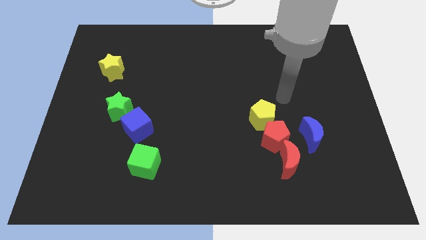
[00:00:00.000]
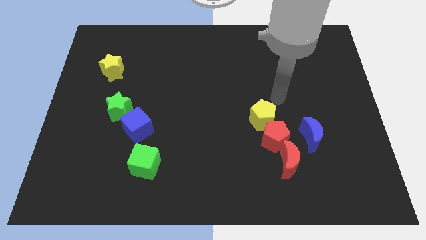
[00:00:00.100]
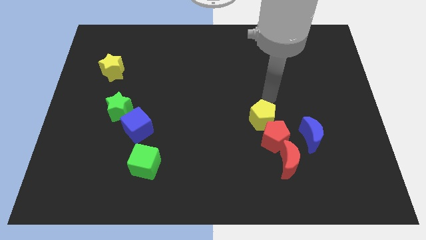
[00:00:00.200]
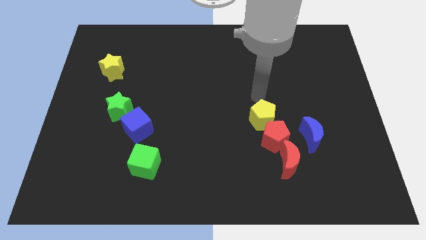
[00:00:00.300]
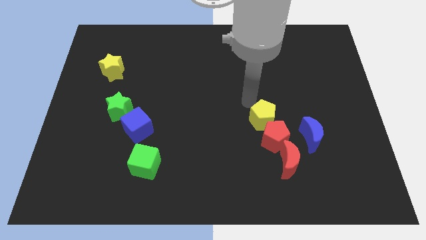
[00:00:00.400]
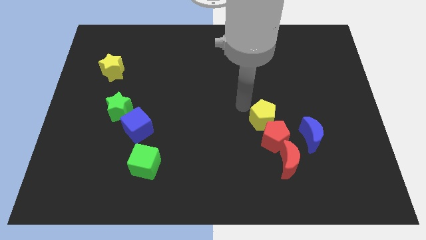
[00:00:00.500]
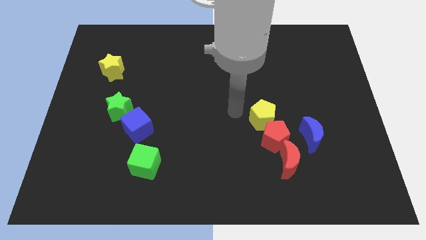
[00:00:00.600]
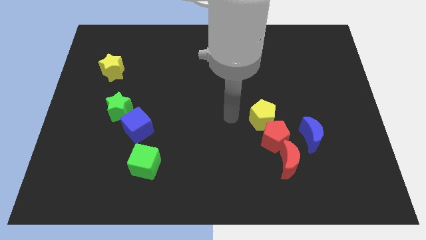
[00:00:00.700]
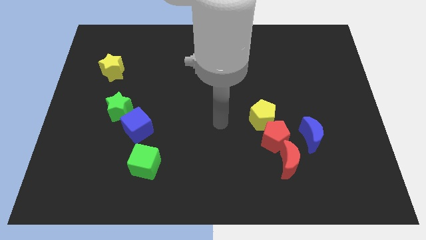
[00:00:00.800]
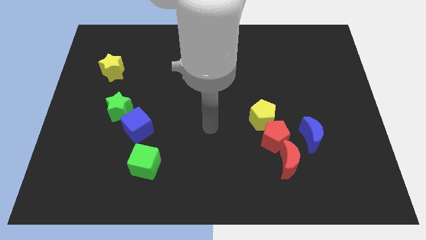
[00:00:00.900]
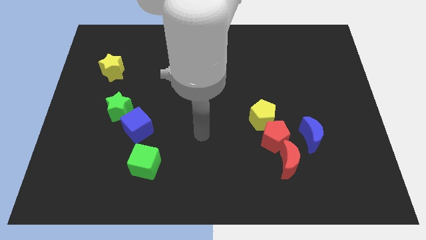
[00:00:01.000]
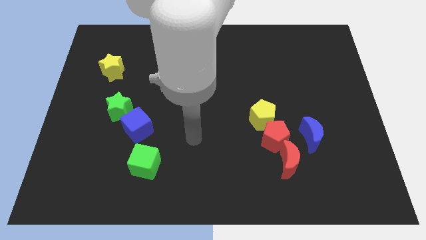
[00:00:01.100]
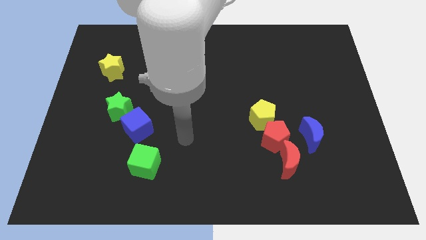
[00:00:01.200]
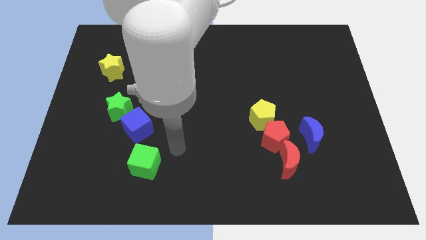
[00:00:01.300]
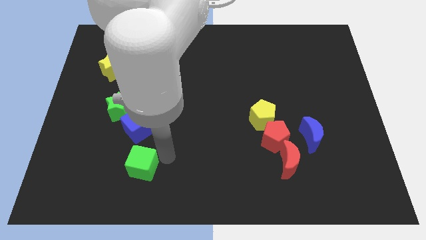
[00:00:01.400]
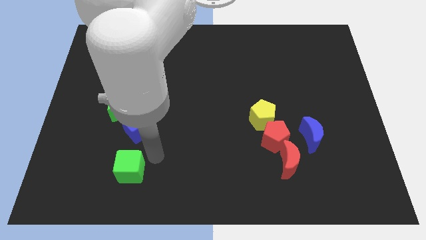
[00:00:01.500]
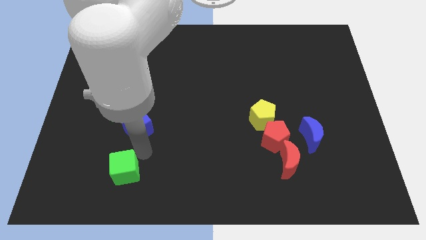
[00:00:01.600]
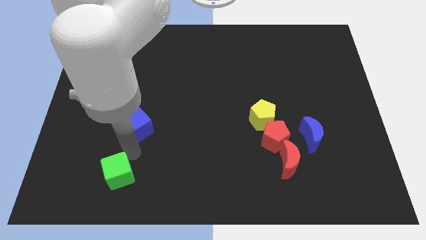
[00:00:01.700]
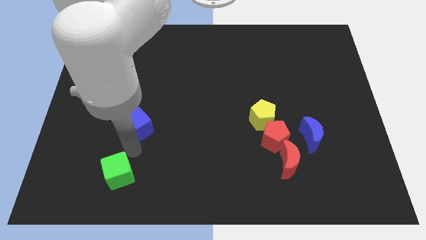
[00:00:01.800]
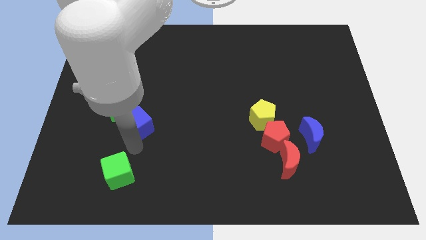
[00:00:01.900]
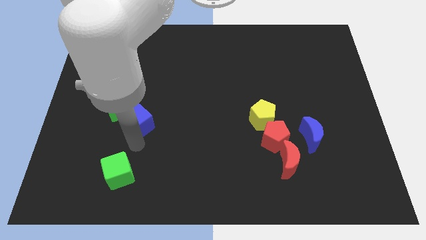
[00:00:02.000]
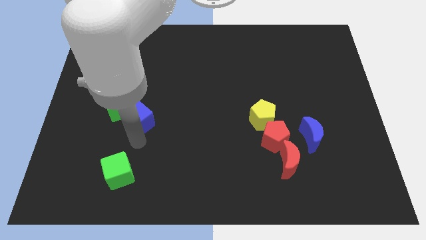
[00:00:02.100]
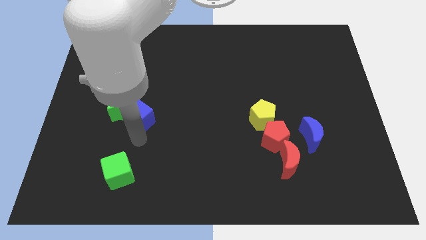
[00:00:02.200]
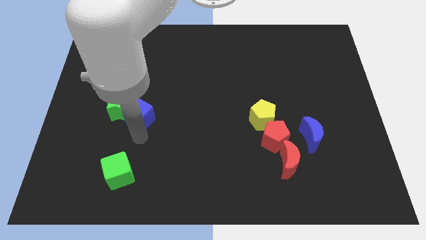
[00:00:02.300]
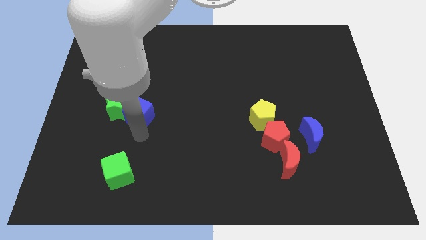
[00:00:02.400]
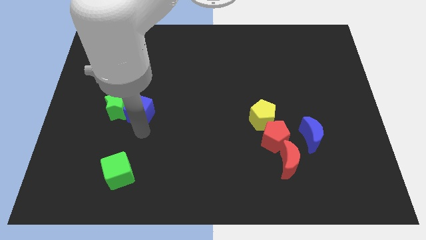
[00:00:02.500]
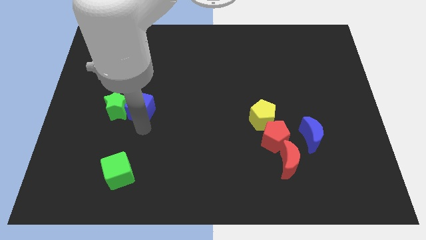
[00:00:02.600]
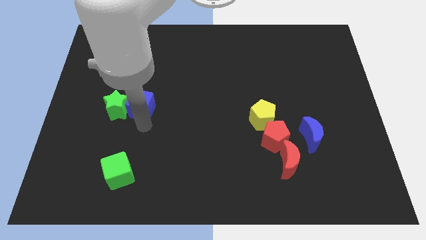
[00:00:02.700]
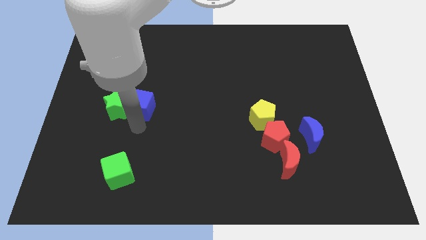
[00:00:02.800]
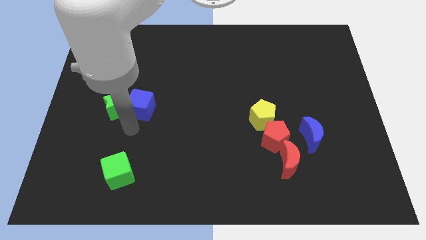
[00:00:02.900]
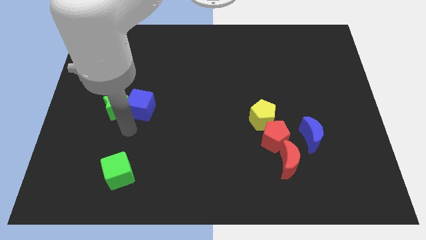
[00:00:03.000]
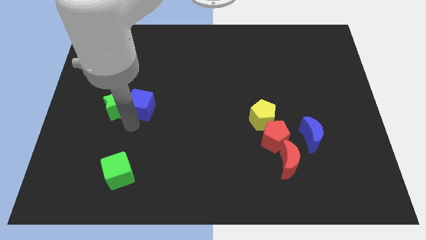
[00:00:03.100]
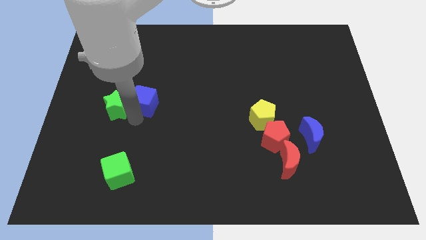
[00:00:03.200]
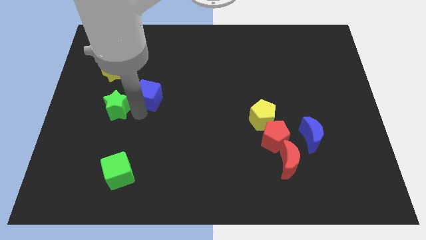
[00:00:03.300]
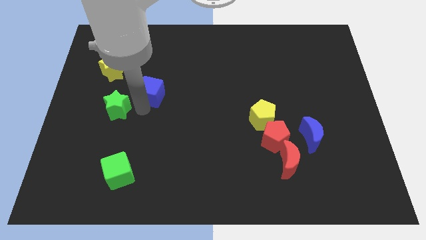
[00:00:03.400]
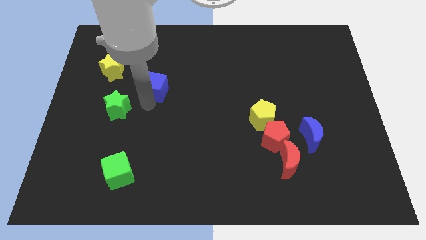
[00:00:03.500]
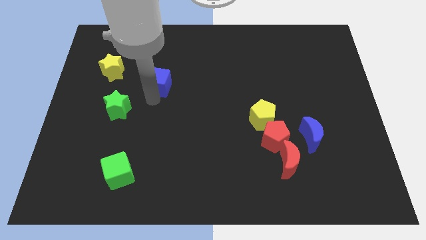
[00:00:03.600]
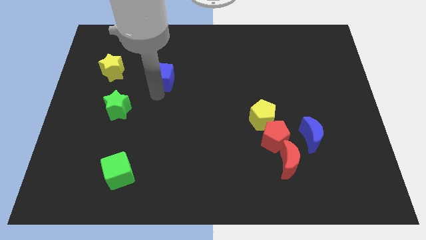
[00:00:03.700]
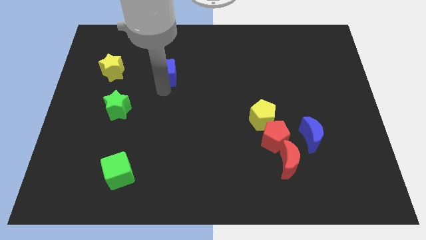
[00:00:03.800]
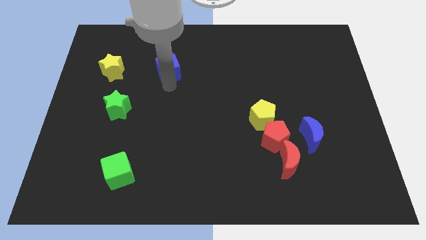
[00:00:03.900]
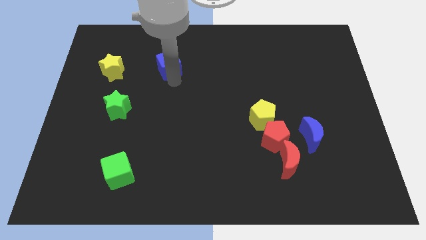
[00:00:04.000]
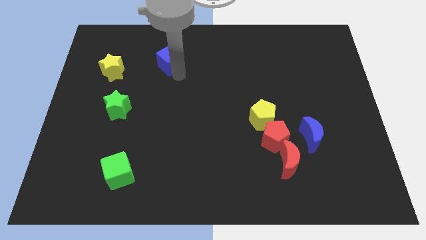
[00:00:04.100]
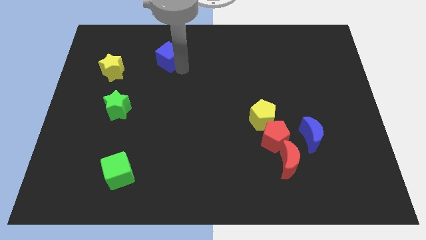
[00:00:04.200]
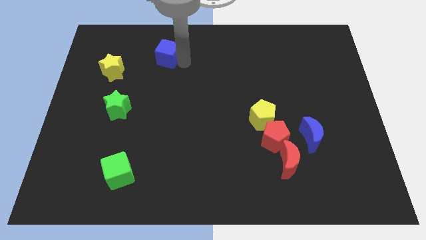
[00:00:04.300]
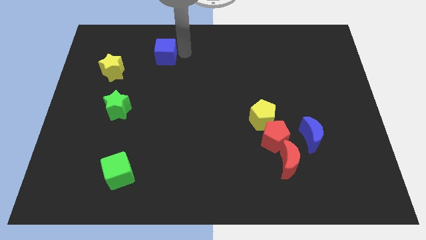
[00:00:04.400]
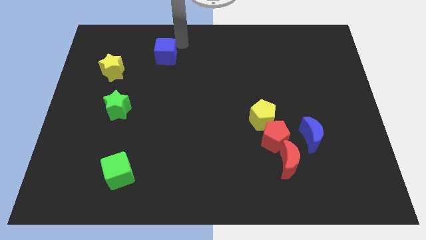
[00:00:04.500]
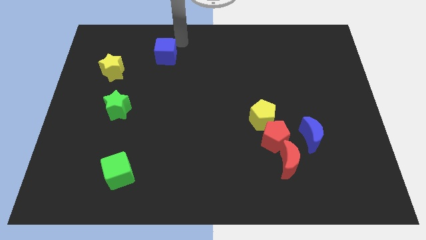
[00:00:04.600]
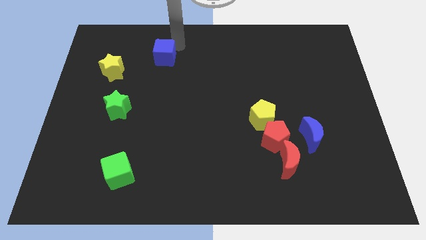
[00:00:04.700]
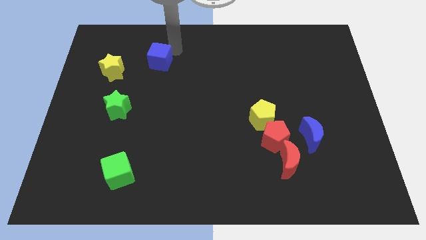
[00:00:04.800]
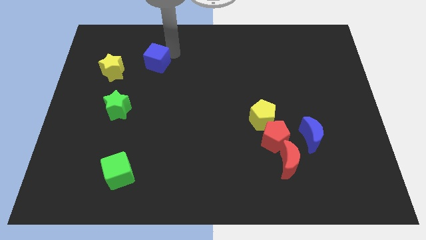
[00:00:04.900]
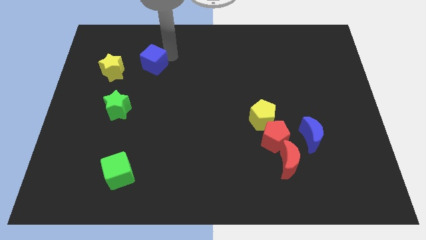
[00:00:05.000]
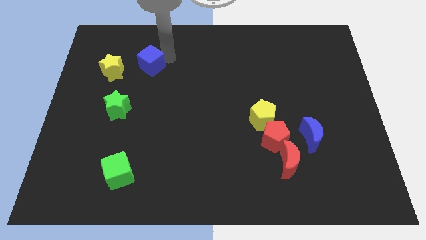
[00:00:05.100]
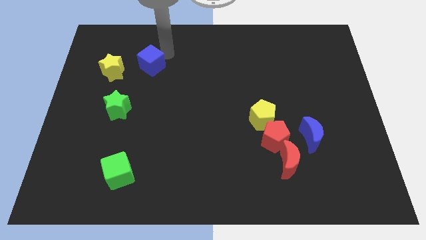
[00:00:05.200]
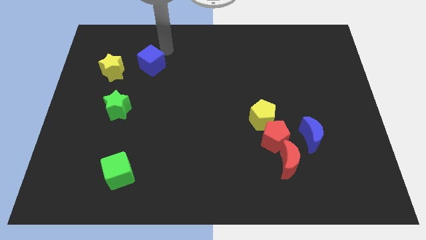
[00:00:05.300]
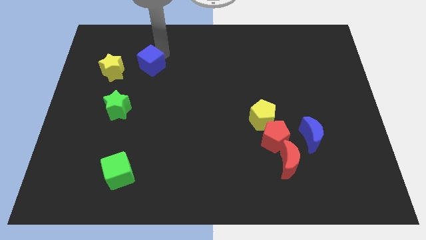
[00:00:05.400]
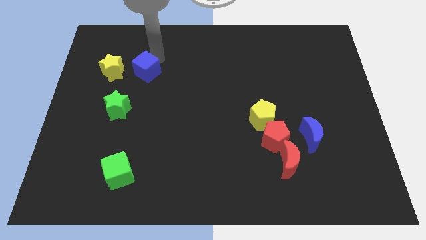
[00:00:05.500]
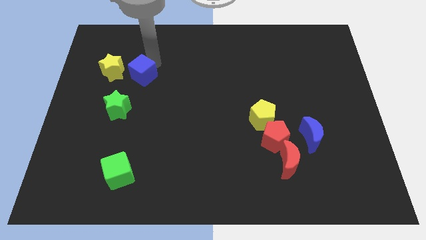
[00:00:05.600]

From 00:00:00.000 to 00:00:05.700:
push the blue cube to the bottom right of the yellow star

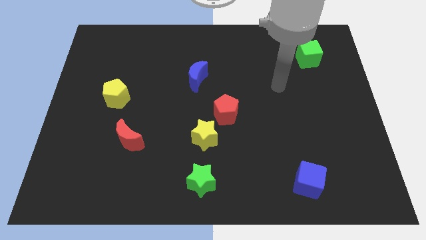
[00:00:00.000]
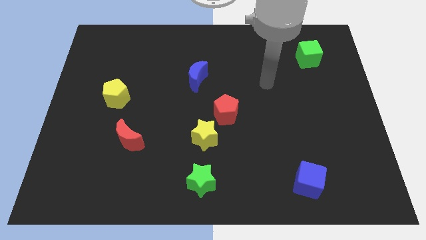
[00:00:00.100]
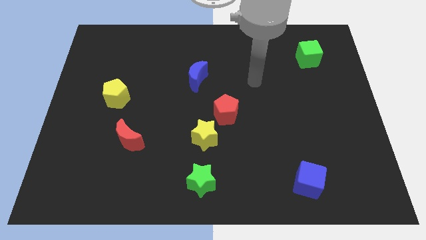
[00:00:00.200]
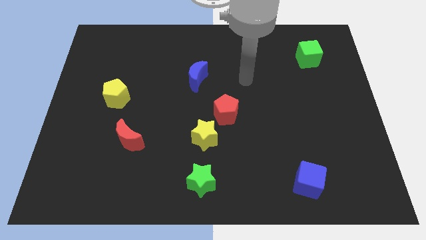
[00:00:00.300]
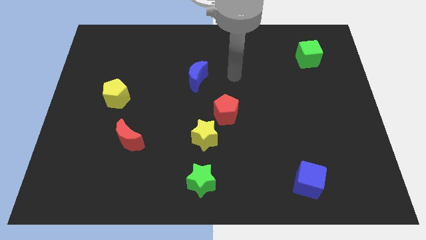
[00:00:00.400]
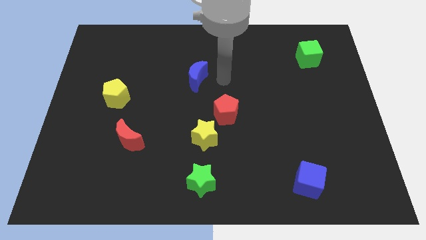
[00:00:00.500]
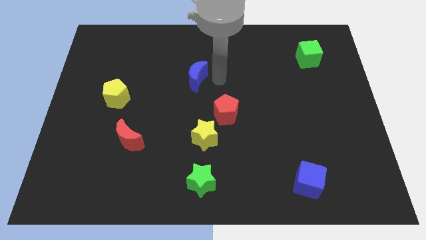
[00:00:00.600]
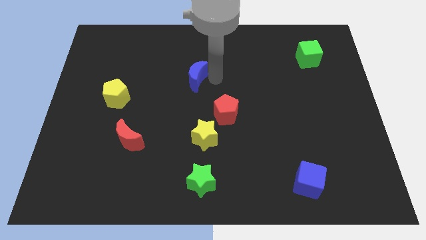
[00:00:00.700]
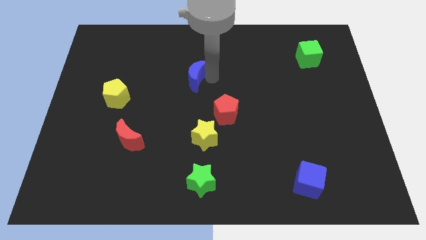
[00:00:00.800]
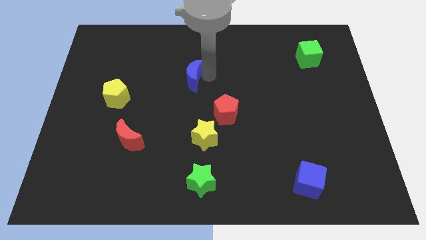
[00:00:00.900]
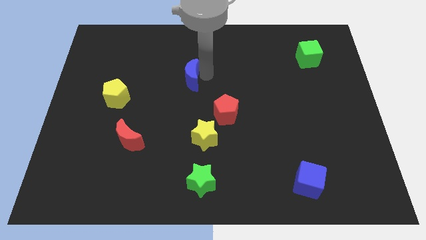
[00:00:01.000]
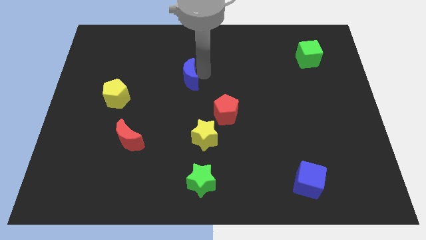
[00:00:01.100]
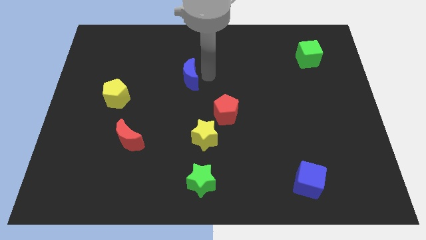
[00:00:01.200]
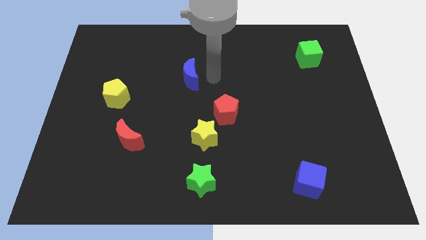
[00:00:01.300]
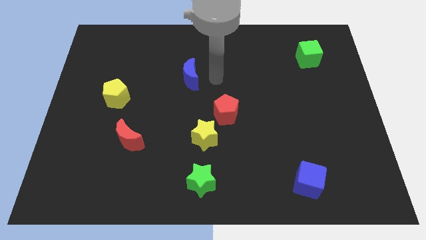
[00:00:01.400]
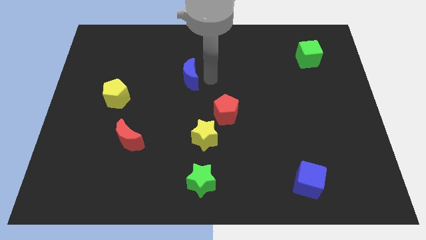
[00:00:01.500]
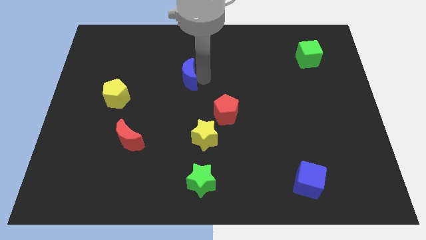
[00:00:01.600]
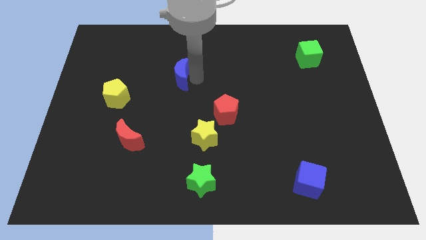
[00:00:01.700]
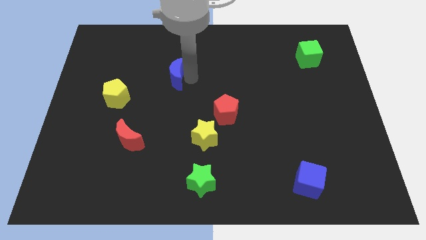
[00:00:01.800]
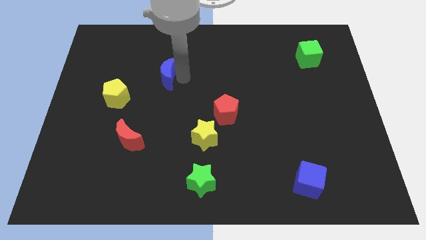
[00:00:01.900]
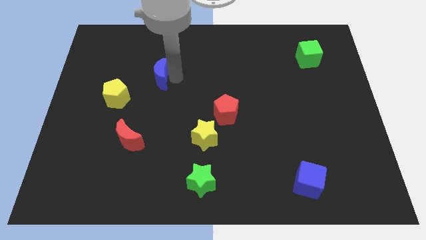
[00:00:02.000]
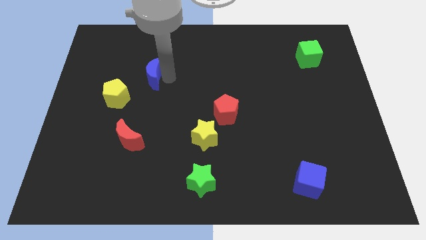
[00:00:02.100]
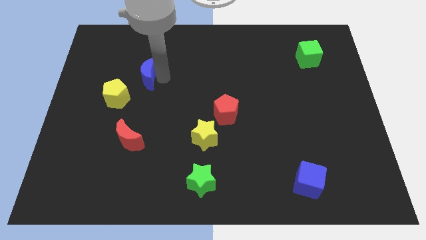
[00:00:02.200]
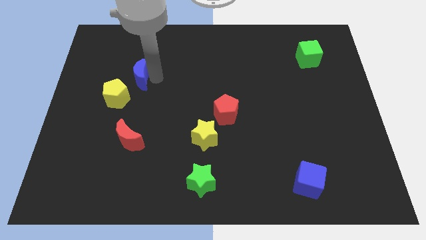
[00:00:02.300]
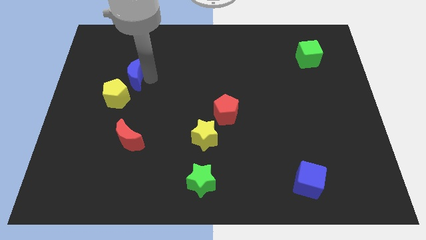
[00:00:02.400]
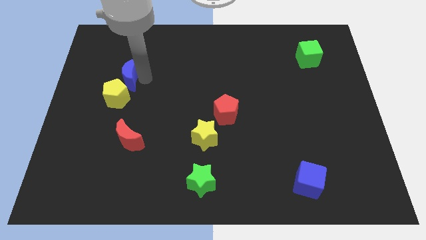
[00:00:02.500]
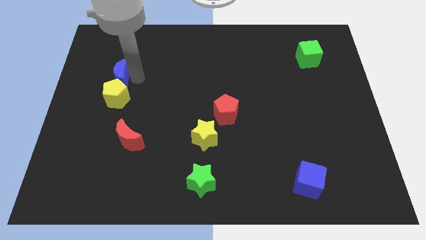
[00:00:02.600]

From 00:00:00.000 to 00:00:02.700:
slide the blue moon to the top left side of the yellow pentagon
